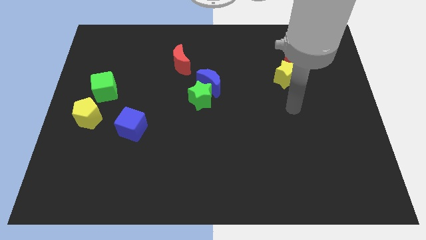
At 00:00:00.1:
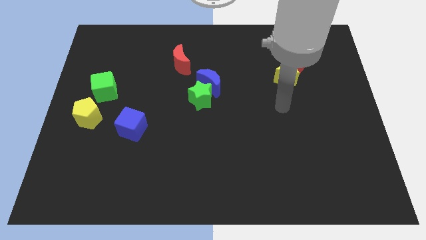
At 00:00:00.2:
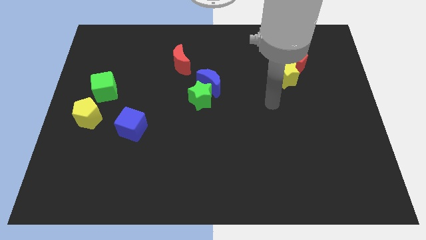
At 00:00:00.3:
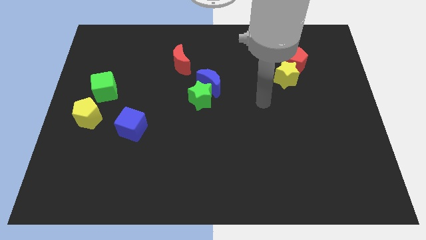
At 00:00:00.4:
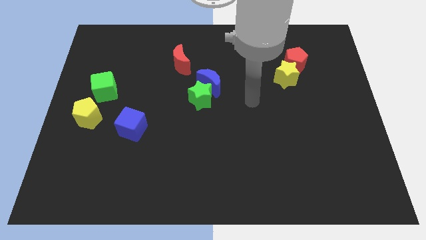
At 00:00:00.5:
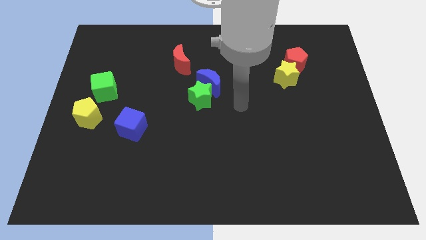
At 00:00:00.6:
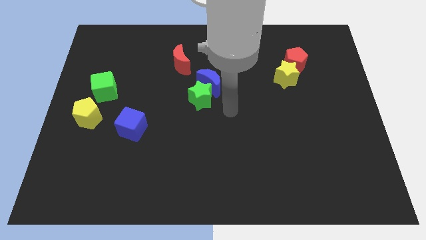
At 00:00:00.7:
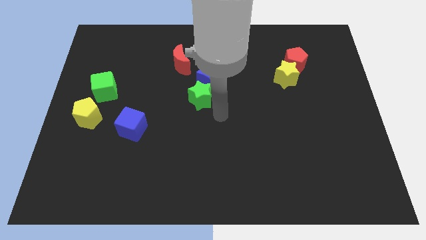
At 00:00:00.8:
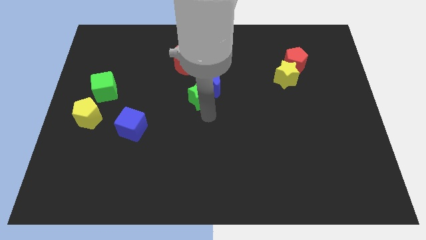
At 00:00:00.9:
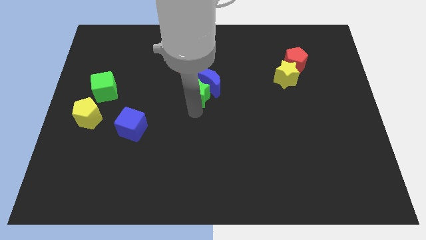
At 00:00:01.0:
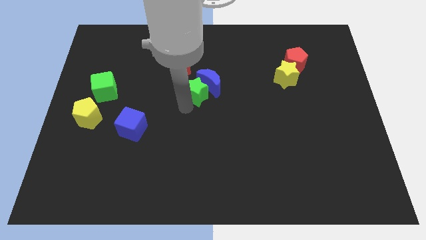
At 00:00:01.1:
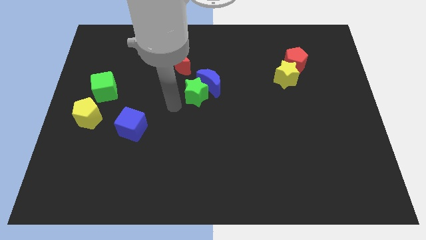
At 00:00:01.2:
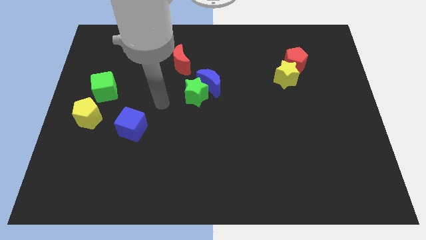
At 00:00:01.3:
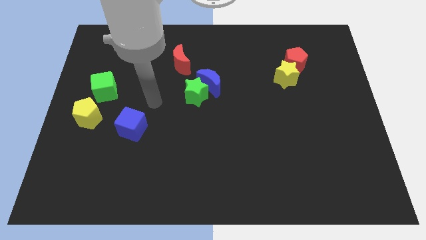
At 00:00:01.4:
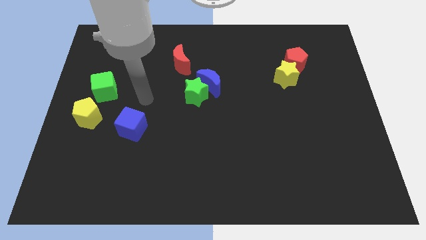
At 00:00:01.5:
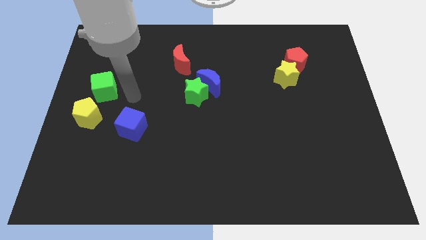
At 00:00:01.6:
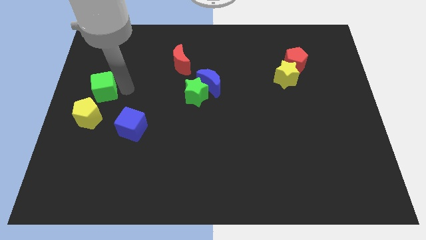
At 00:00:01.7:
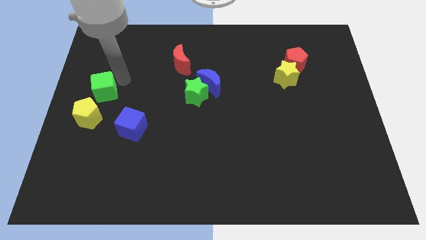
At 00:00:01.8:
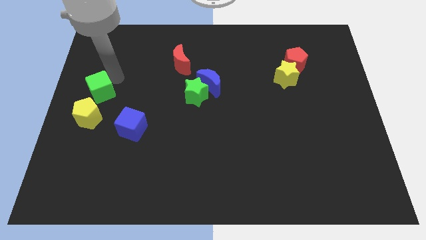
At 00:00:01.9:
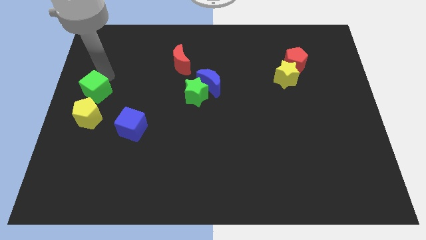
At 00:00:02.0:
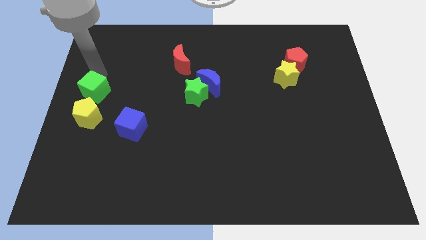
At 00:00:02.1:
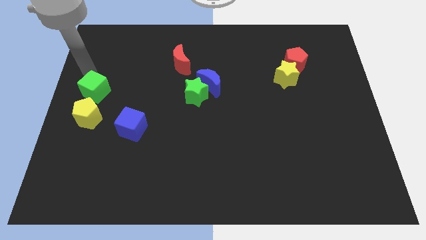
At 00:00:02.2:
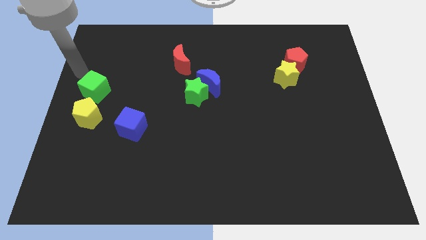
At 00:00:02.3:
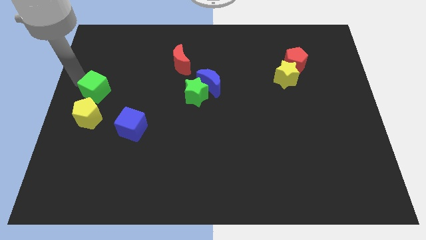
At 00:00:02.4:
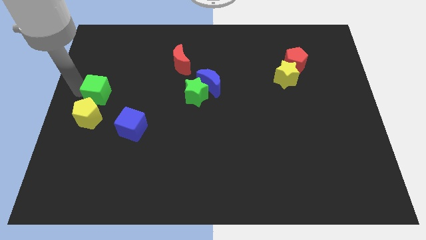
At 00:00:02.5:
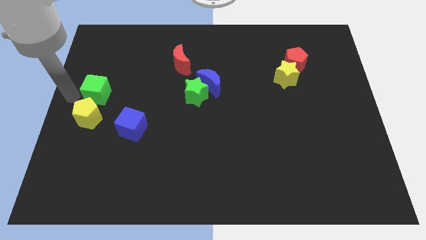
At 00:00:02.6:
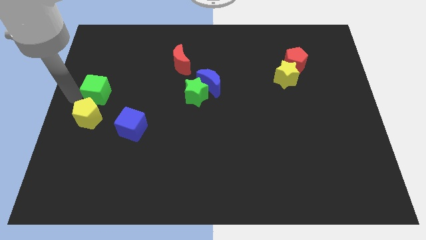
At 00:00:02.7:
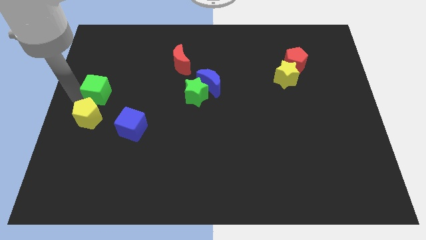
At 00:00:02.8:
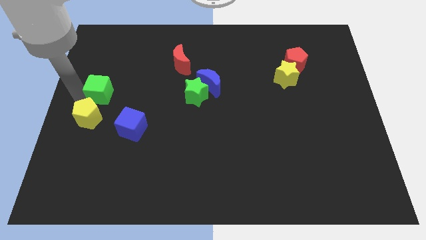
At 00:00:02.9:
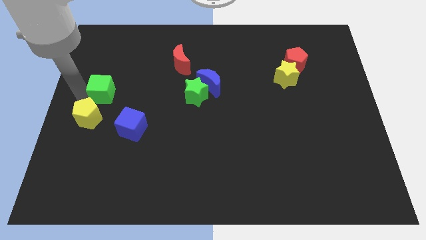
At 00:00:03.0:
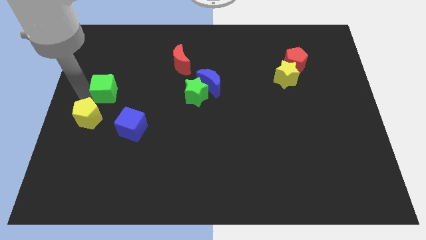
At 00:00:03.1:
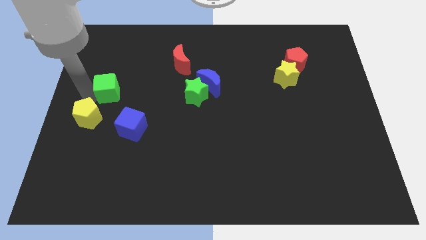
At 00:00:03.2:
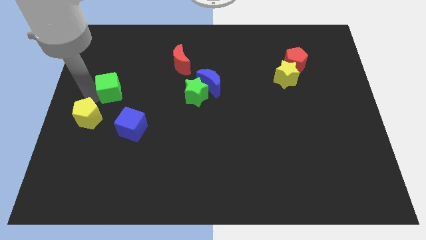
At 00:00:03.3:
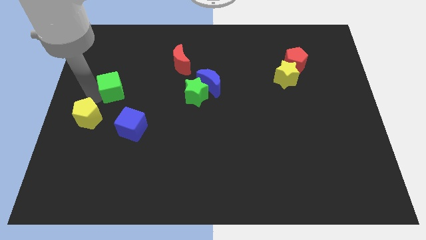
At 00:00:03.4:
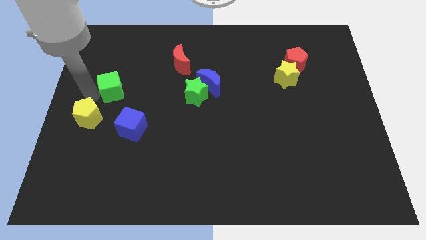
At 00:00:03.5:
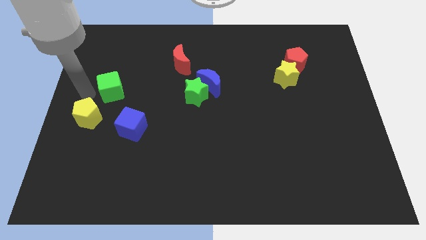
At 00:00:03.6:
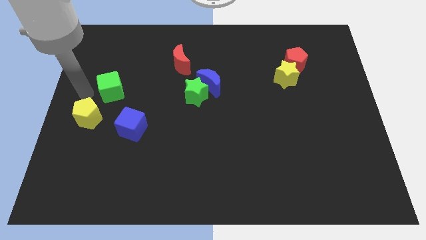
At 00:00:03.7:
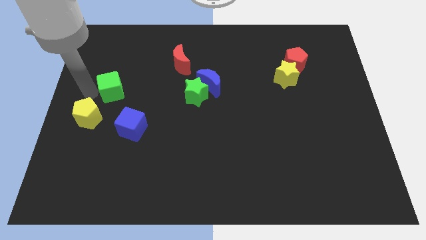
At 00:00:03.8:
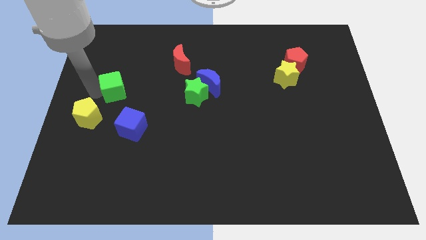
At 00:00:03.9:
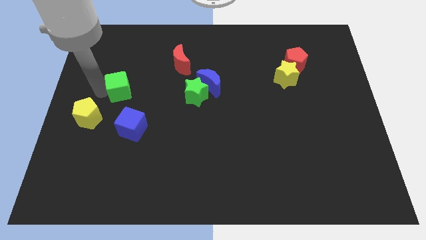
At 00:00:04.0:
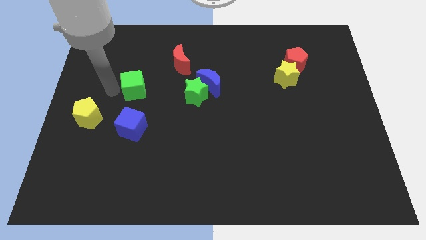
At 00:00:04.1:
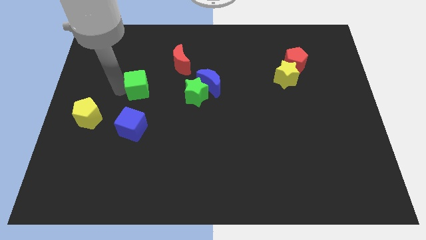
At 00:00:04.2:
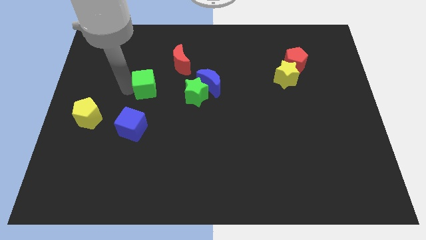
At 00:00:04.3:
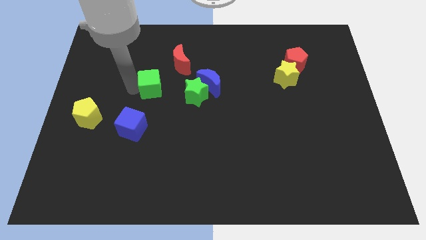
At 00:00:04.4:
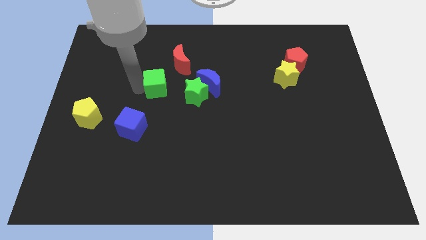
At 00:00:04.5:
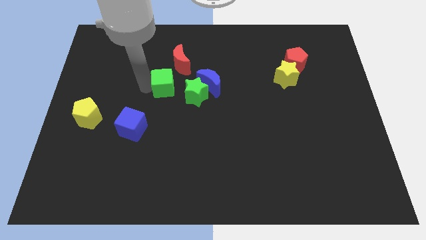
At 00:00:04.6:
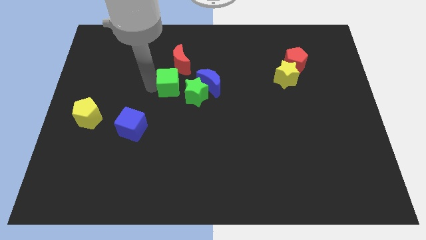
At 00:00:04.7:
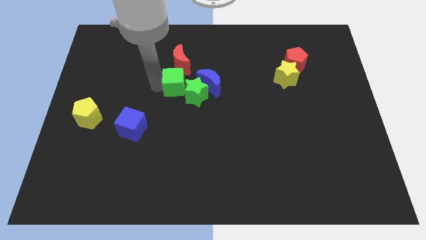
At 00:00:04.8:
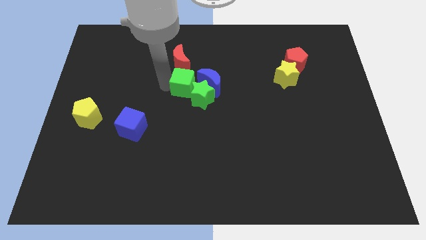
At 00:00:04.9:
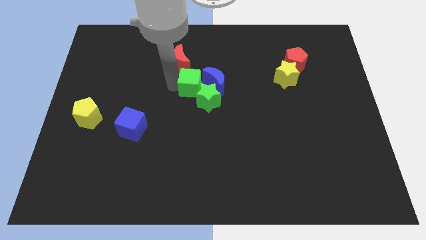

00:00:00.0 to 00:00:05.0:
push the green cube to the blue moon

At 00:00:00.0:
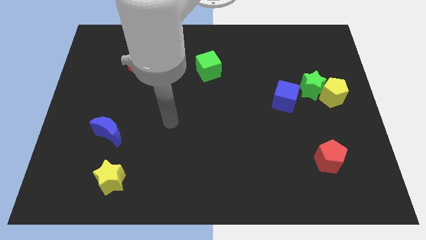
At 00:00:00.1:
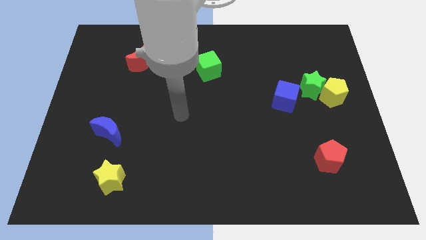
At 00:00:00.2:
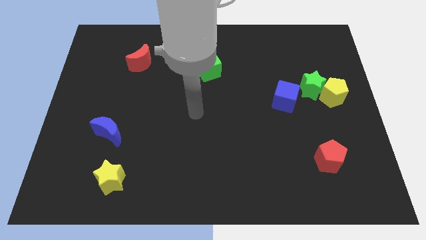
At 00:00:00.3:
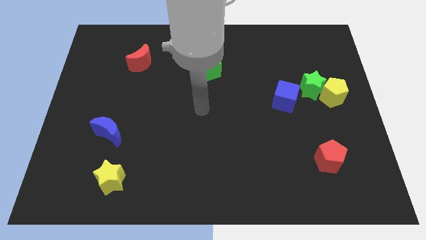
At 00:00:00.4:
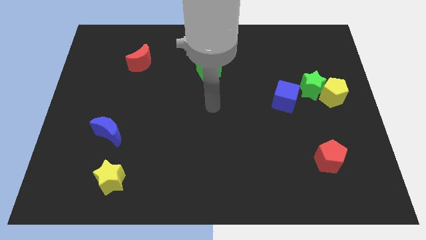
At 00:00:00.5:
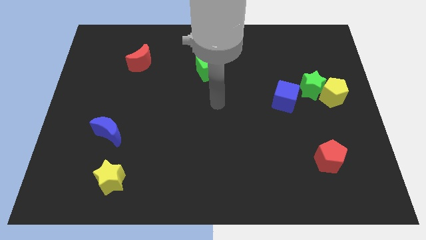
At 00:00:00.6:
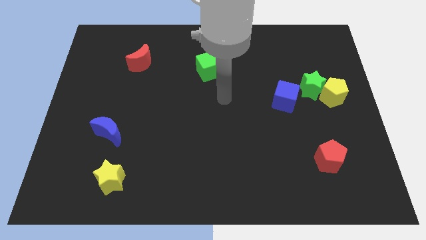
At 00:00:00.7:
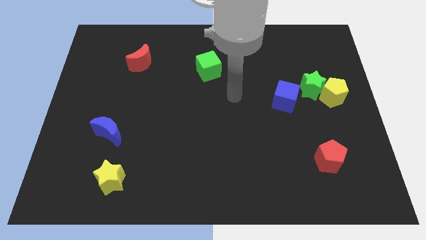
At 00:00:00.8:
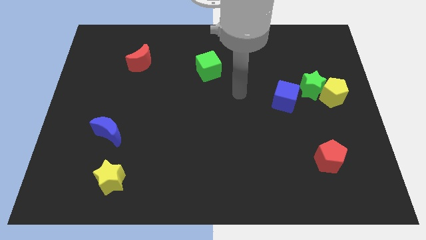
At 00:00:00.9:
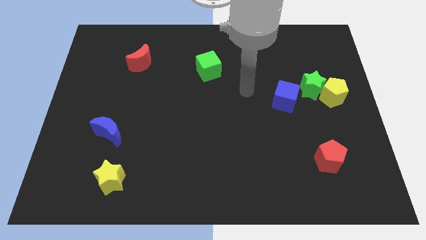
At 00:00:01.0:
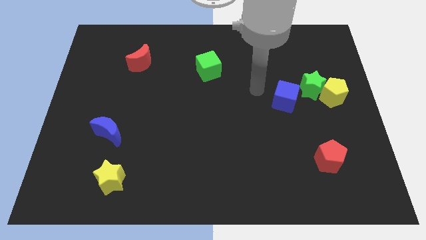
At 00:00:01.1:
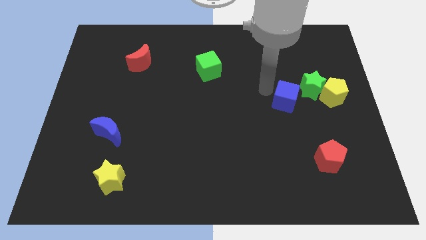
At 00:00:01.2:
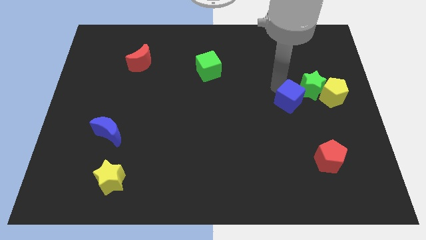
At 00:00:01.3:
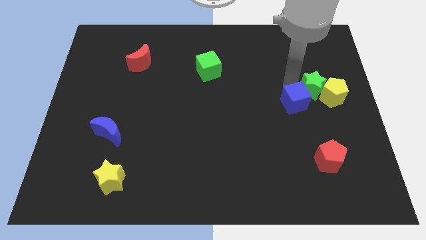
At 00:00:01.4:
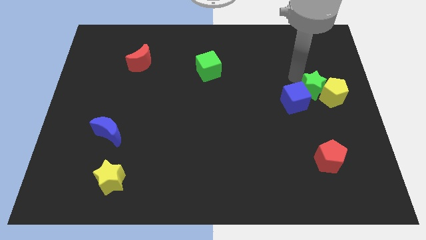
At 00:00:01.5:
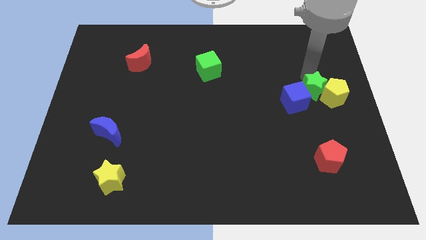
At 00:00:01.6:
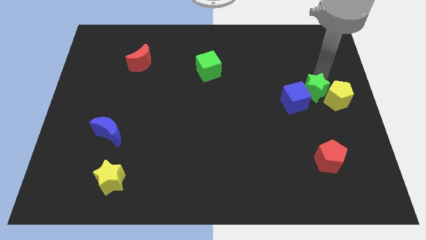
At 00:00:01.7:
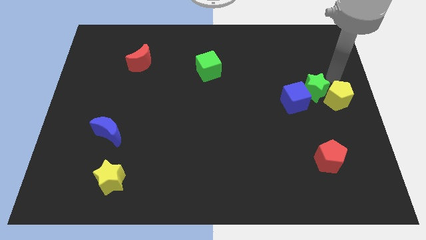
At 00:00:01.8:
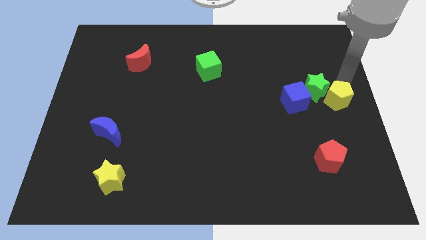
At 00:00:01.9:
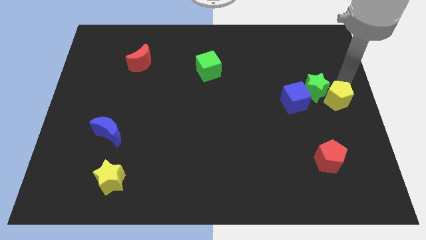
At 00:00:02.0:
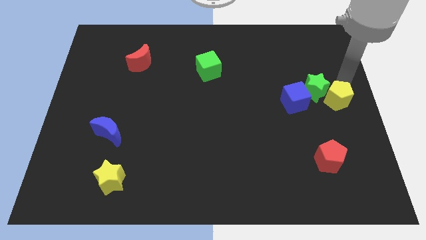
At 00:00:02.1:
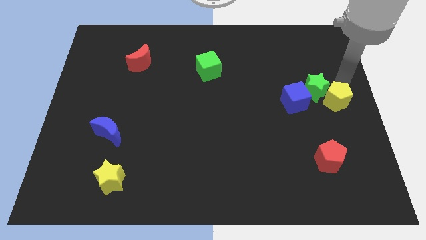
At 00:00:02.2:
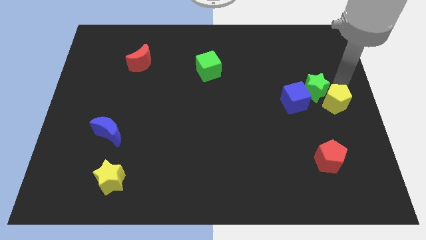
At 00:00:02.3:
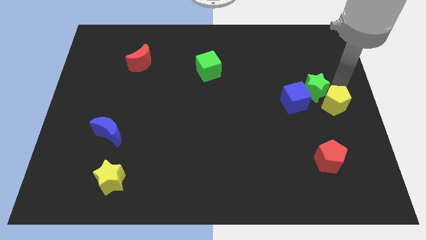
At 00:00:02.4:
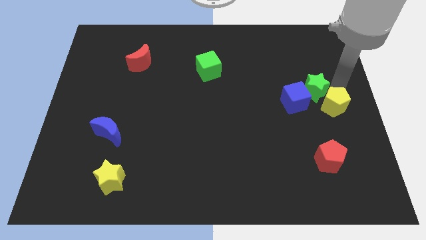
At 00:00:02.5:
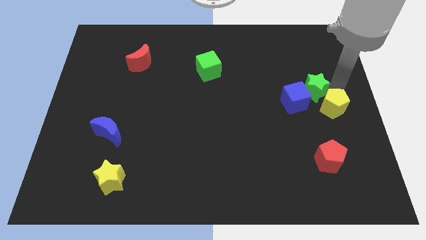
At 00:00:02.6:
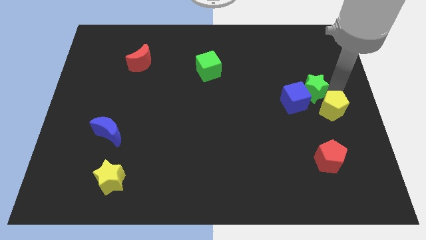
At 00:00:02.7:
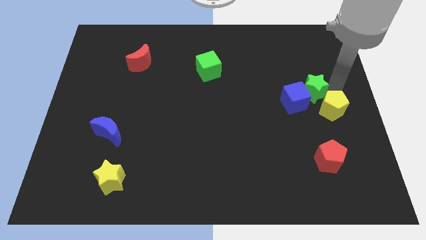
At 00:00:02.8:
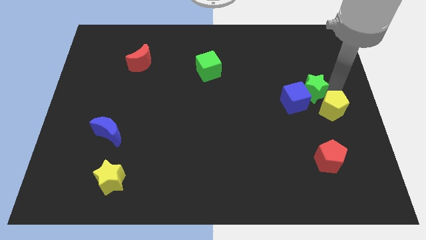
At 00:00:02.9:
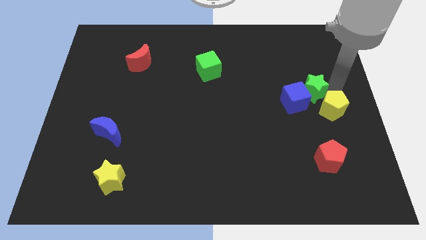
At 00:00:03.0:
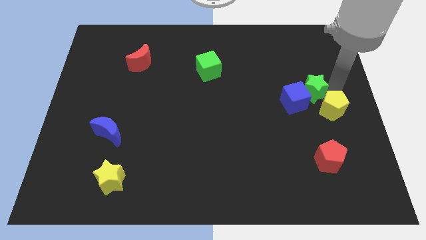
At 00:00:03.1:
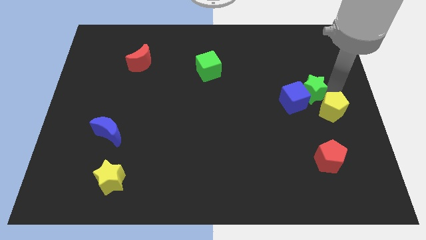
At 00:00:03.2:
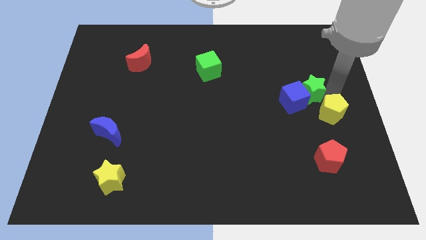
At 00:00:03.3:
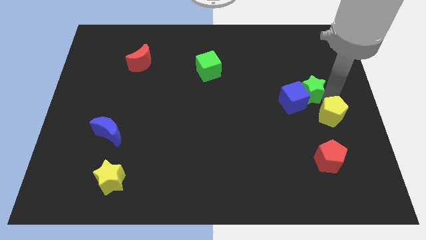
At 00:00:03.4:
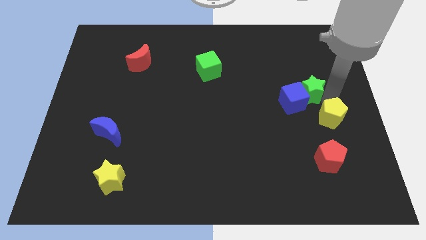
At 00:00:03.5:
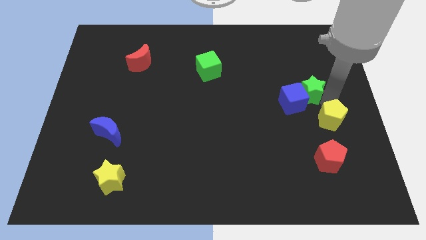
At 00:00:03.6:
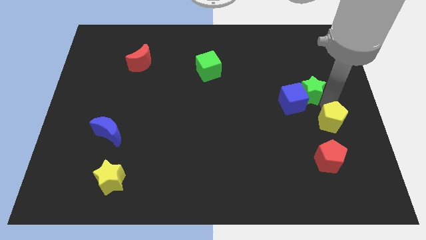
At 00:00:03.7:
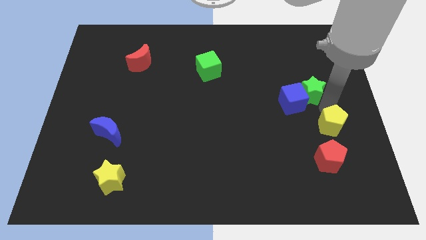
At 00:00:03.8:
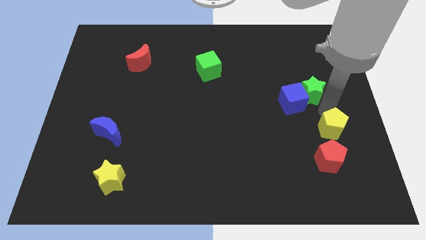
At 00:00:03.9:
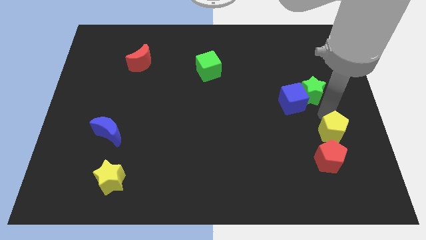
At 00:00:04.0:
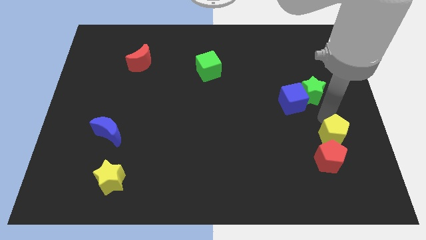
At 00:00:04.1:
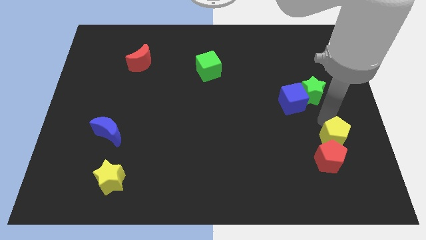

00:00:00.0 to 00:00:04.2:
put the yellow pentagon next to the red pentagon
